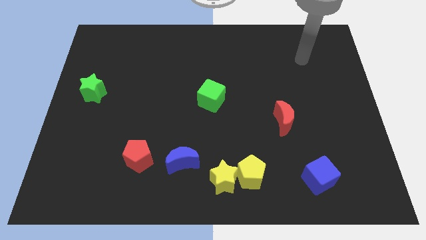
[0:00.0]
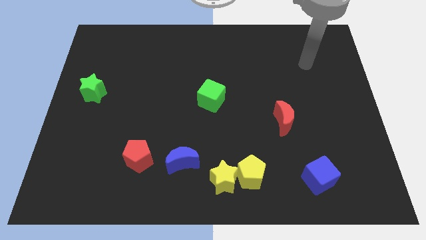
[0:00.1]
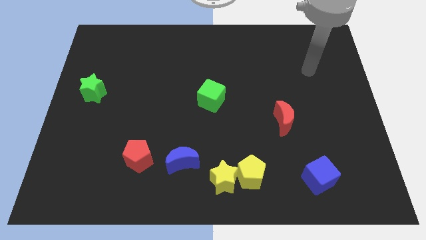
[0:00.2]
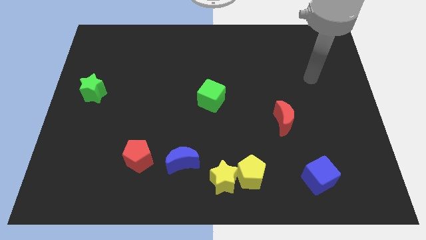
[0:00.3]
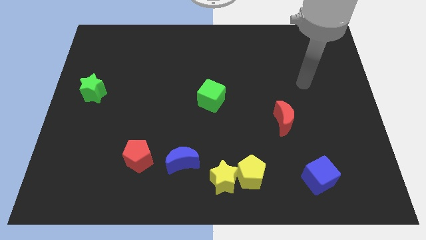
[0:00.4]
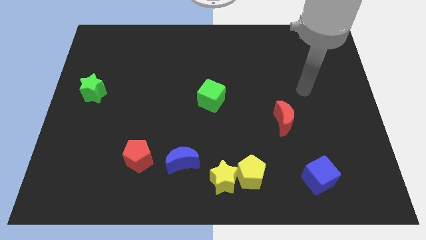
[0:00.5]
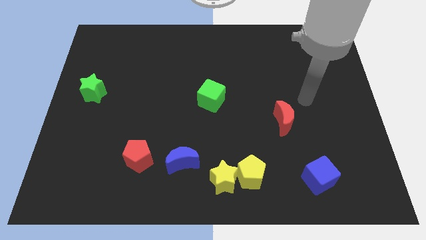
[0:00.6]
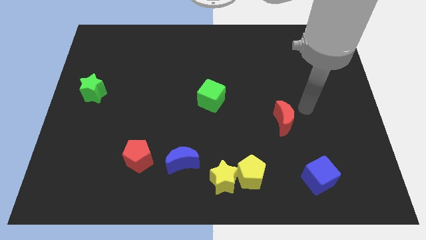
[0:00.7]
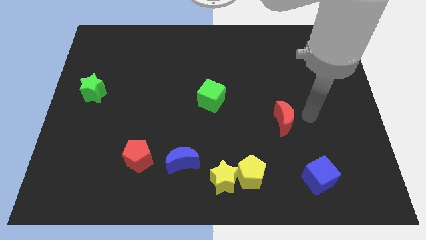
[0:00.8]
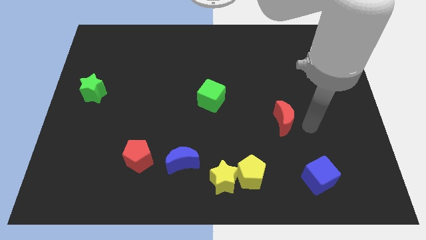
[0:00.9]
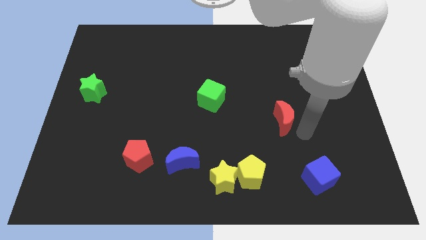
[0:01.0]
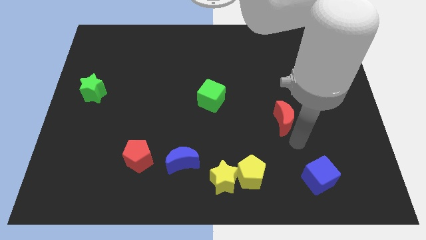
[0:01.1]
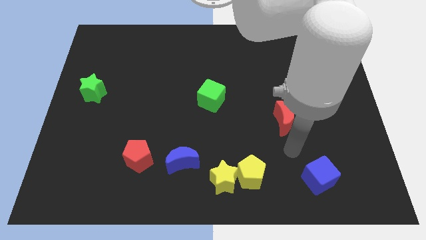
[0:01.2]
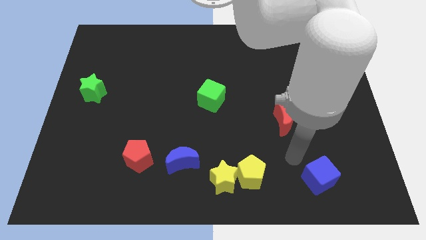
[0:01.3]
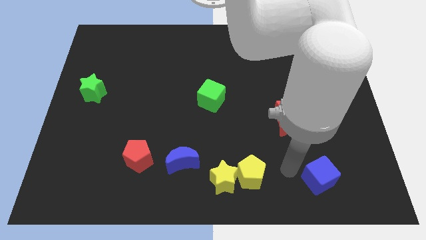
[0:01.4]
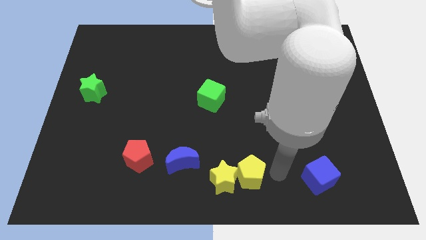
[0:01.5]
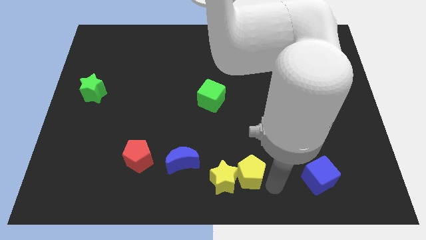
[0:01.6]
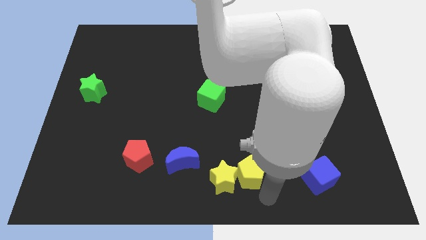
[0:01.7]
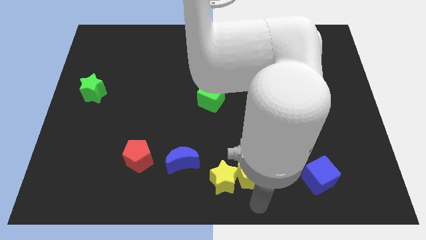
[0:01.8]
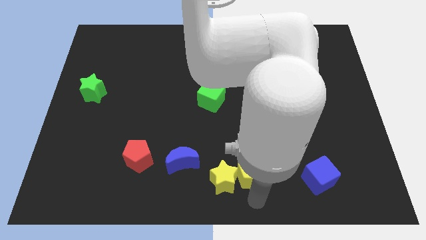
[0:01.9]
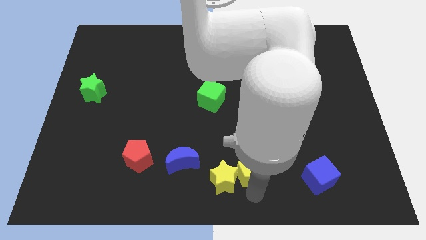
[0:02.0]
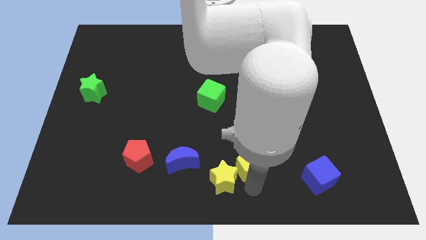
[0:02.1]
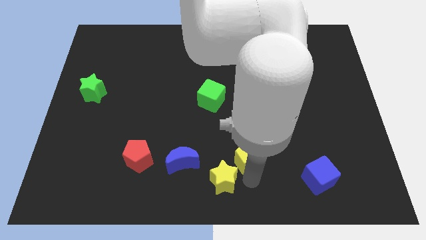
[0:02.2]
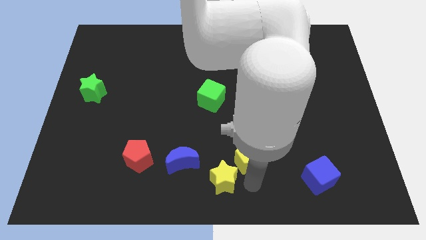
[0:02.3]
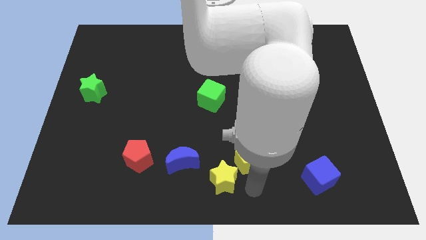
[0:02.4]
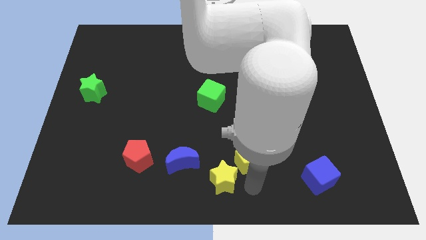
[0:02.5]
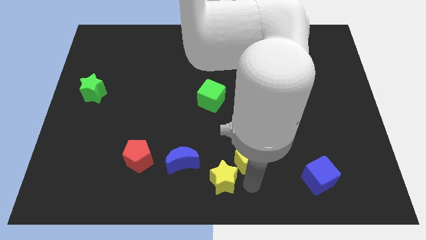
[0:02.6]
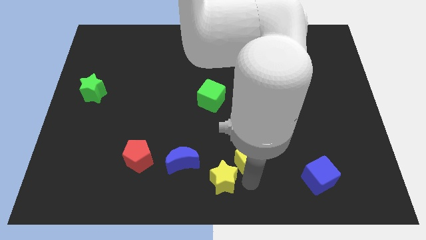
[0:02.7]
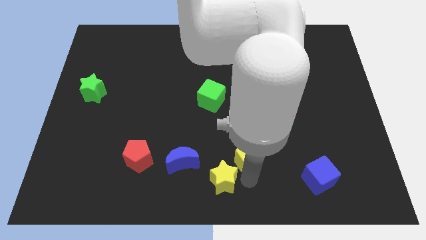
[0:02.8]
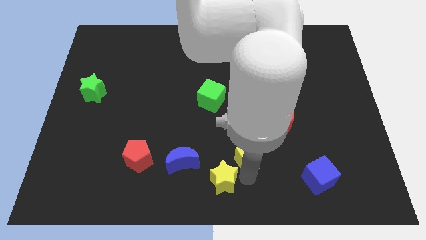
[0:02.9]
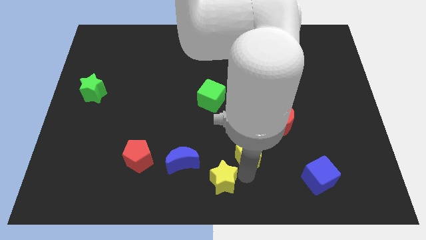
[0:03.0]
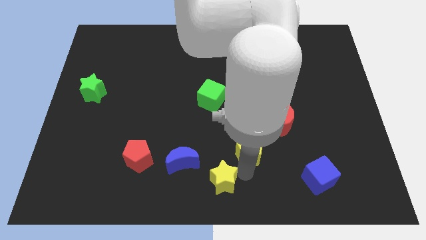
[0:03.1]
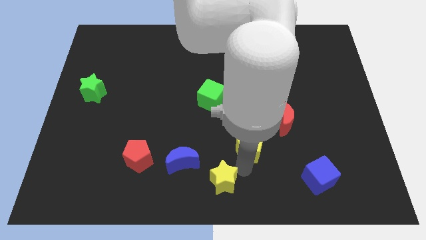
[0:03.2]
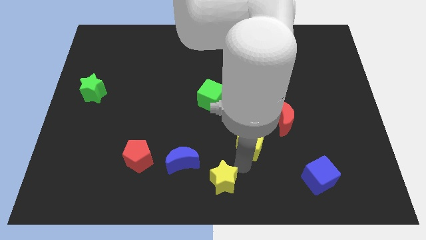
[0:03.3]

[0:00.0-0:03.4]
move the yellow pentagon up a little

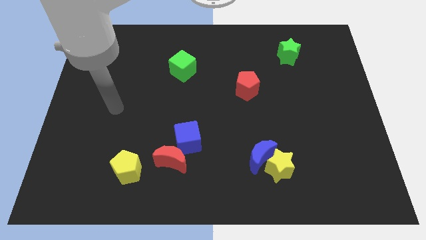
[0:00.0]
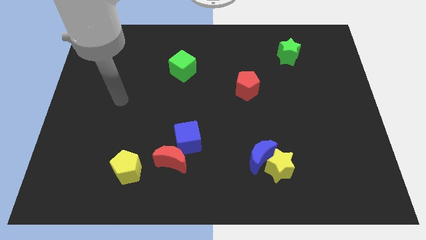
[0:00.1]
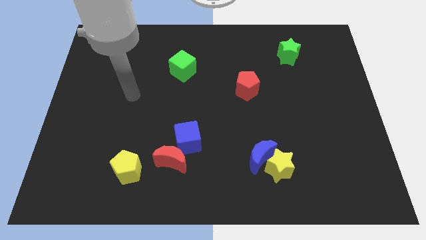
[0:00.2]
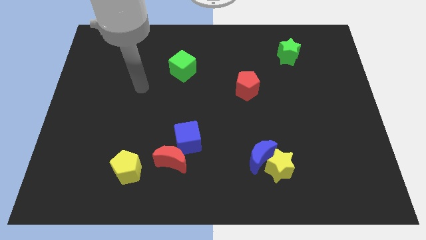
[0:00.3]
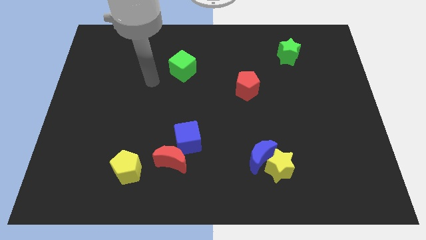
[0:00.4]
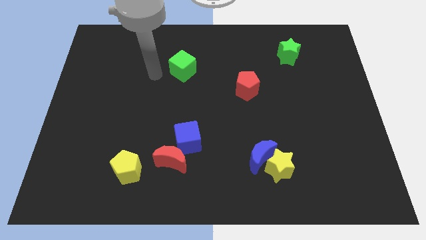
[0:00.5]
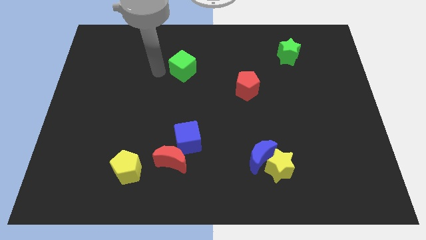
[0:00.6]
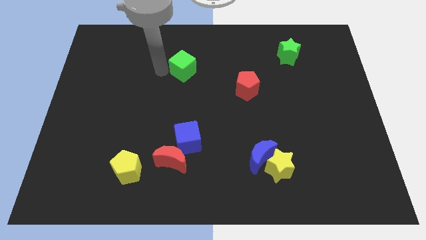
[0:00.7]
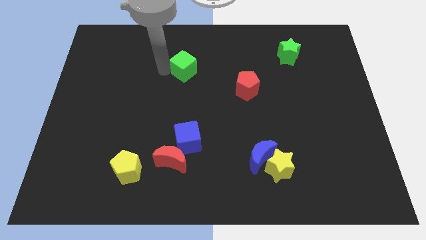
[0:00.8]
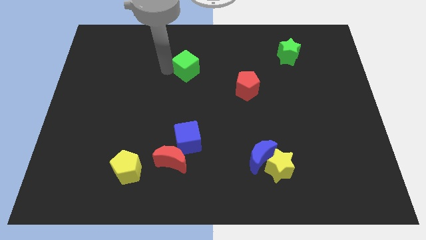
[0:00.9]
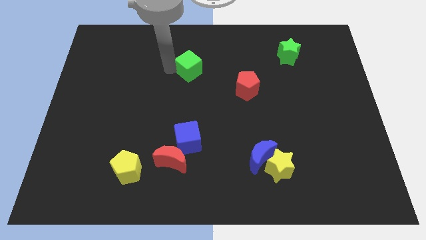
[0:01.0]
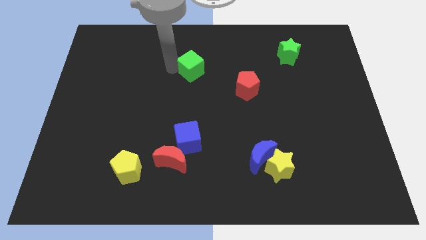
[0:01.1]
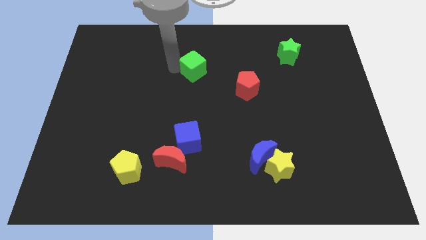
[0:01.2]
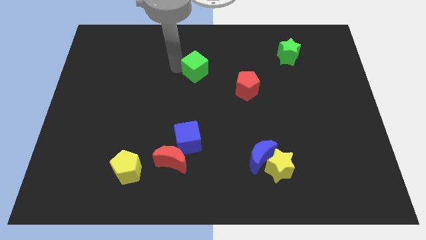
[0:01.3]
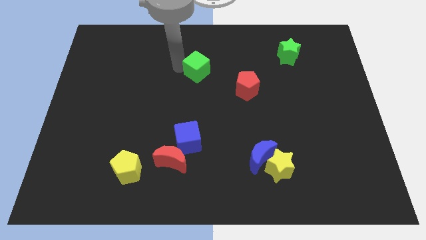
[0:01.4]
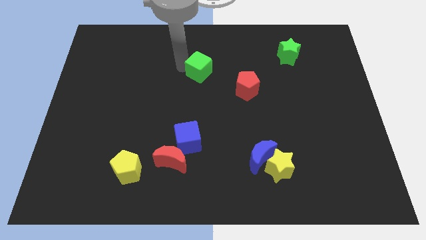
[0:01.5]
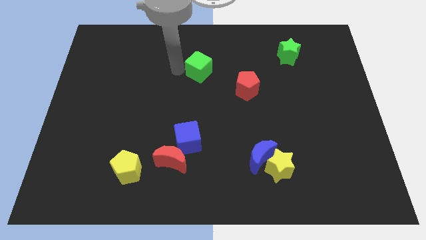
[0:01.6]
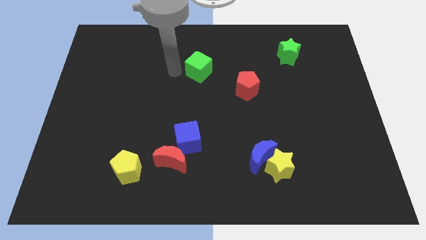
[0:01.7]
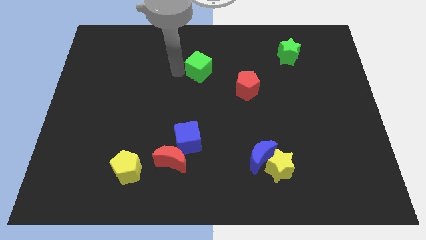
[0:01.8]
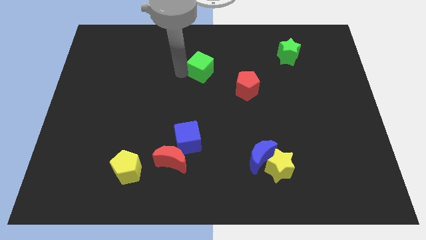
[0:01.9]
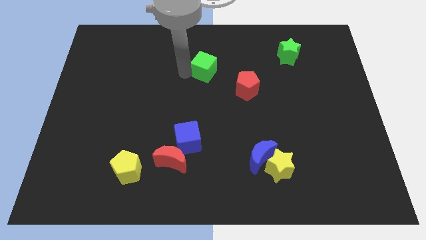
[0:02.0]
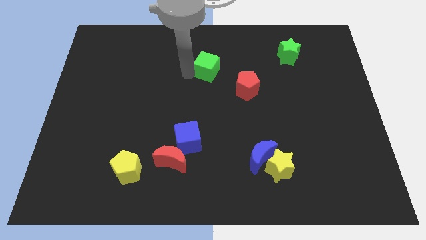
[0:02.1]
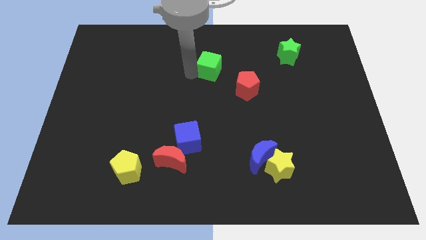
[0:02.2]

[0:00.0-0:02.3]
slightly move the green cube to the right

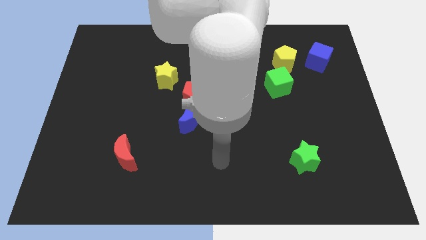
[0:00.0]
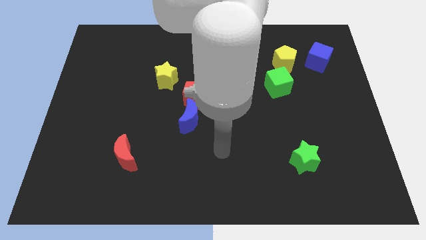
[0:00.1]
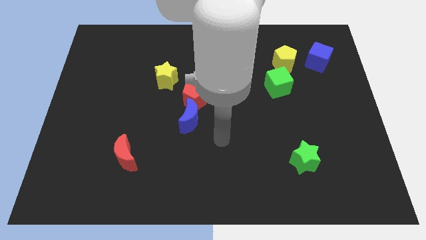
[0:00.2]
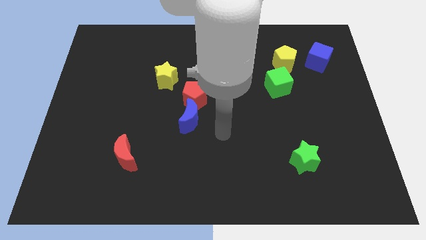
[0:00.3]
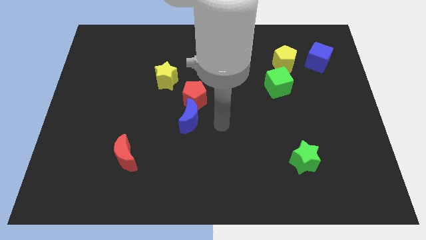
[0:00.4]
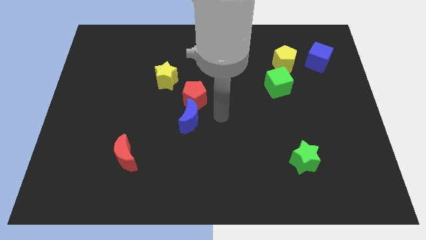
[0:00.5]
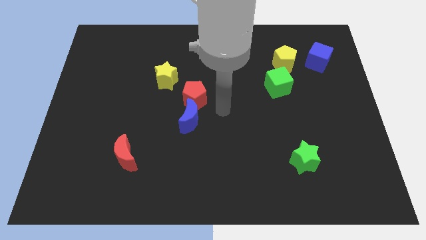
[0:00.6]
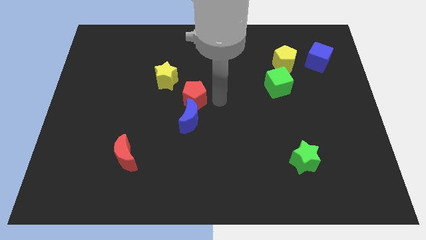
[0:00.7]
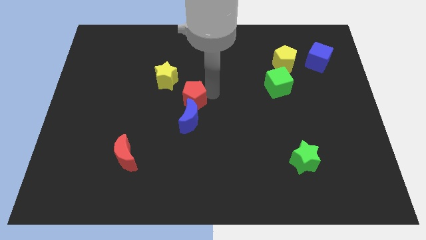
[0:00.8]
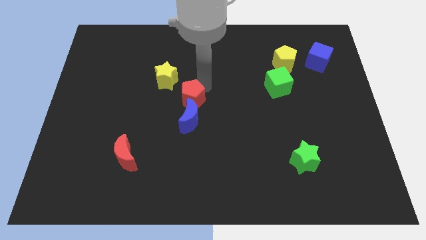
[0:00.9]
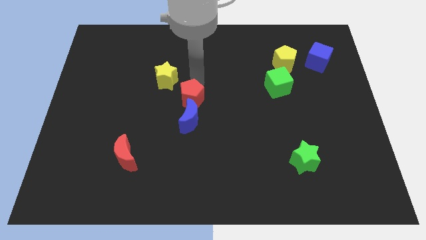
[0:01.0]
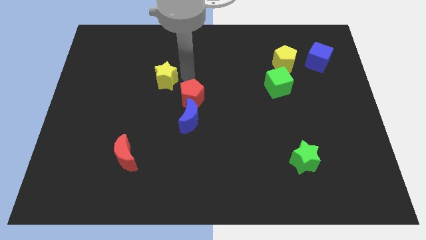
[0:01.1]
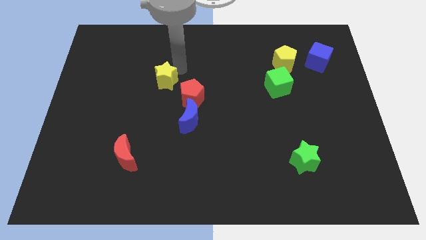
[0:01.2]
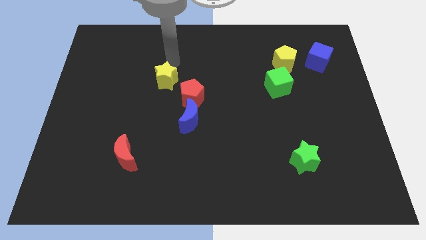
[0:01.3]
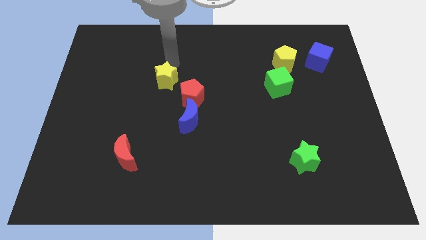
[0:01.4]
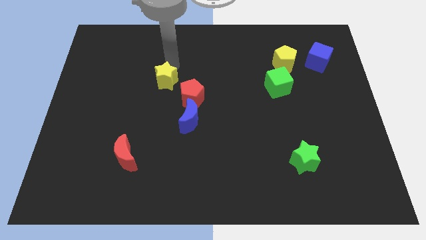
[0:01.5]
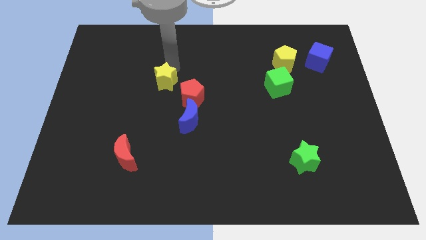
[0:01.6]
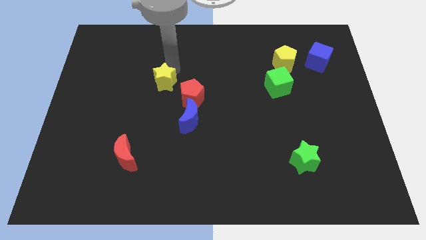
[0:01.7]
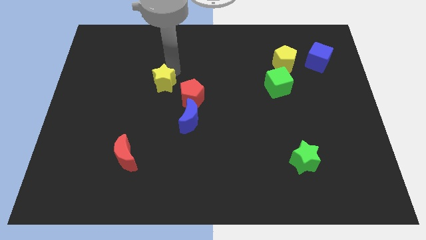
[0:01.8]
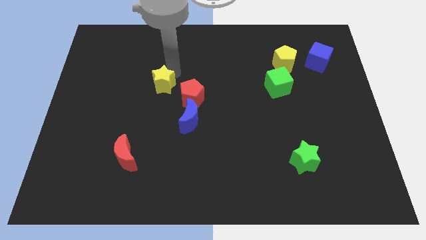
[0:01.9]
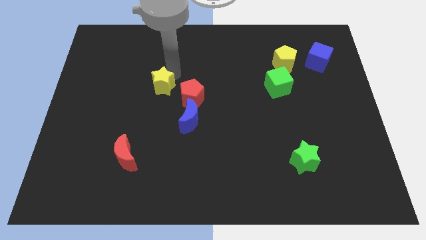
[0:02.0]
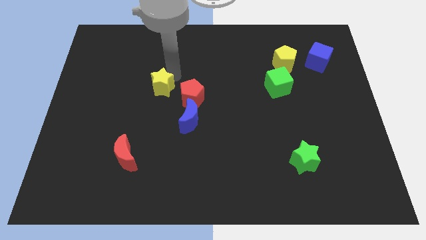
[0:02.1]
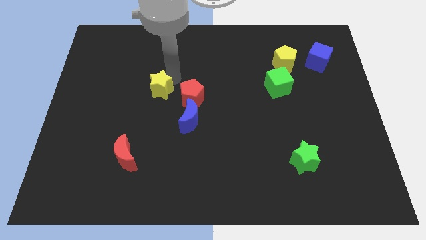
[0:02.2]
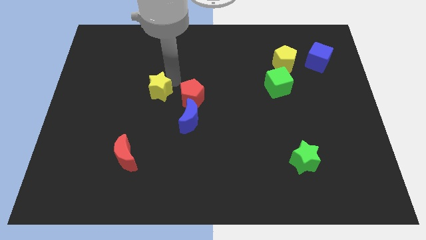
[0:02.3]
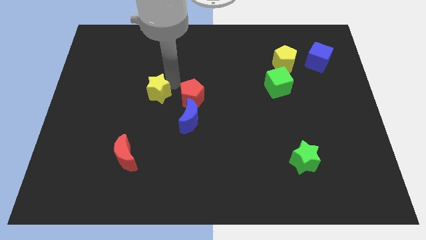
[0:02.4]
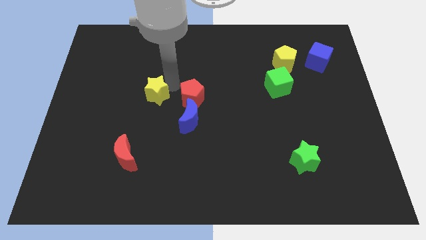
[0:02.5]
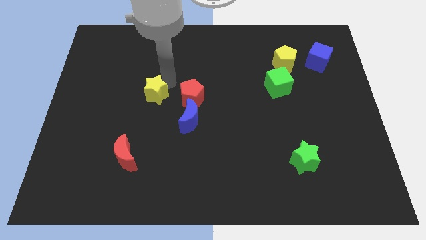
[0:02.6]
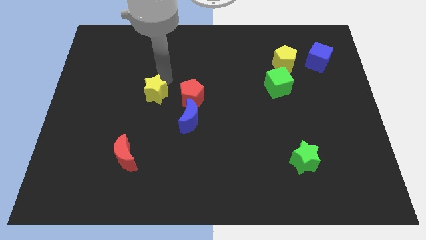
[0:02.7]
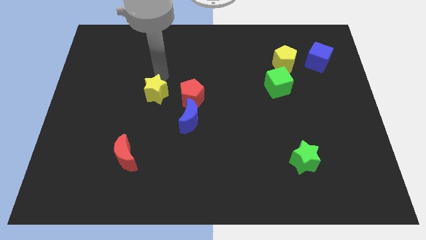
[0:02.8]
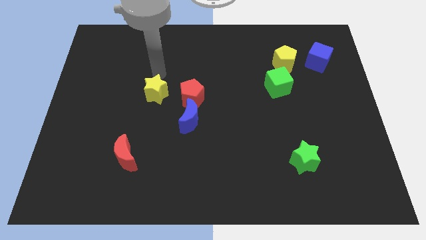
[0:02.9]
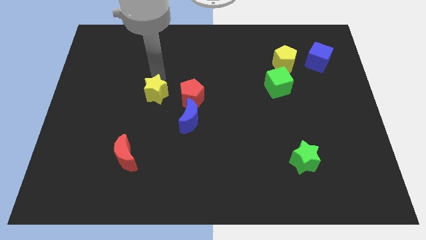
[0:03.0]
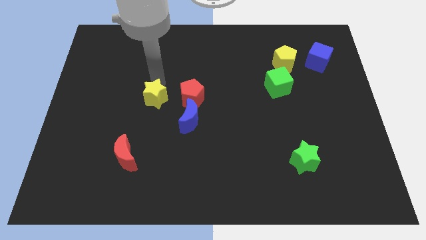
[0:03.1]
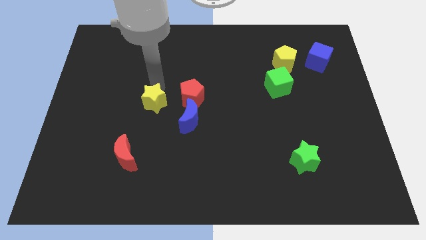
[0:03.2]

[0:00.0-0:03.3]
slightly move the yellow star downwards
